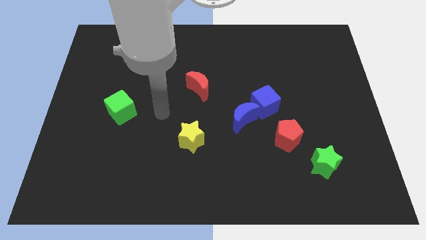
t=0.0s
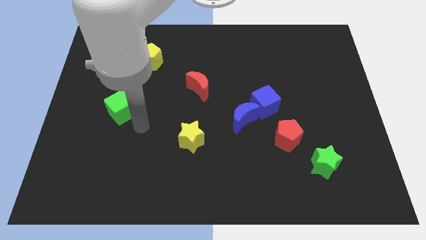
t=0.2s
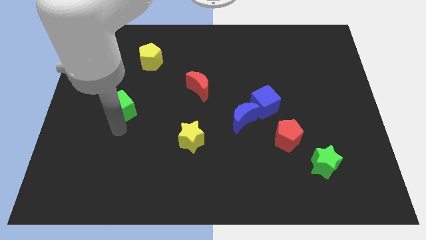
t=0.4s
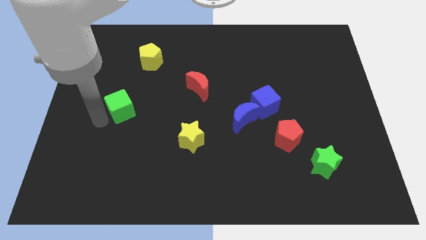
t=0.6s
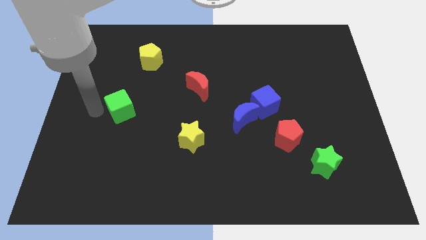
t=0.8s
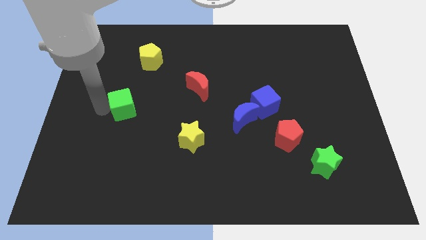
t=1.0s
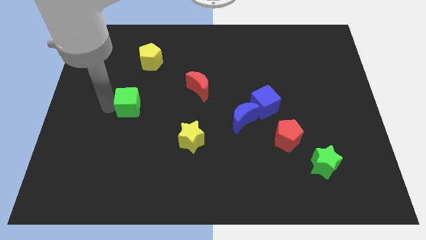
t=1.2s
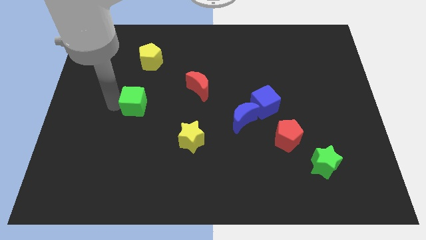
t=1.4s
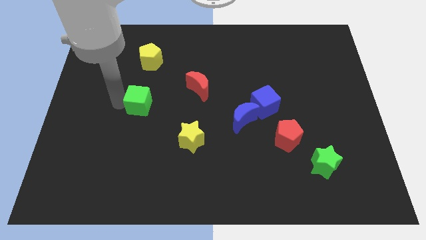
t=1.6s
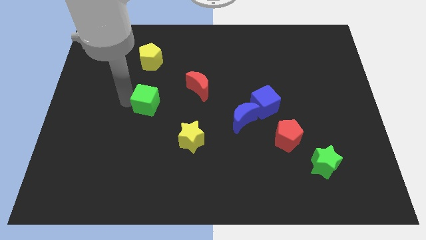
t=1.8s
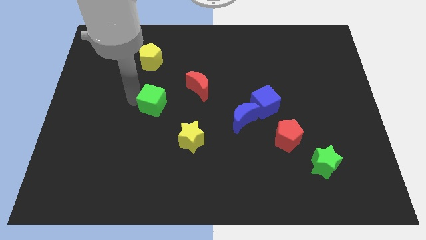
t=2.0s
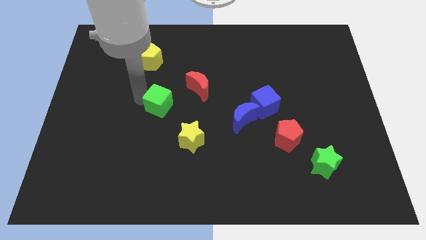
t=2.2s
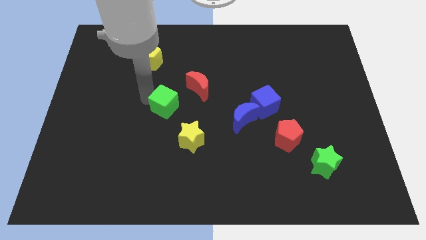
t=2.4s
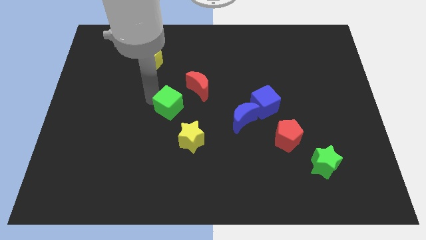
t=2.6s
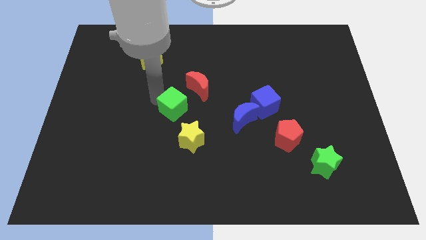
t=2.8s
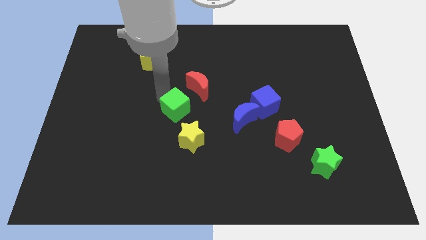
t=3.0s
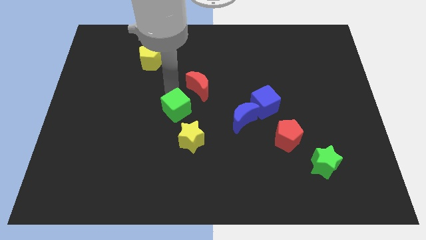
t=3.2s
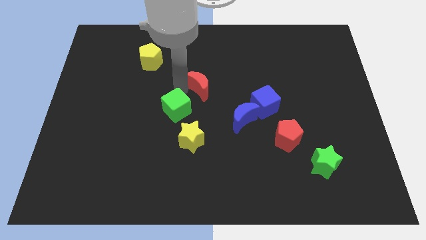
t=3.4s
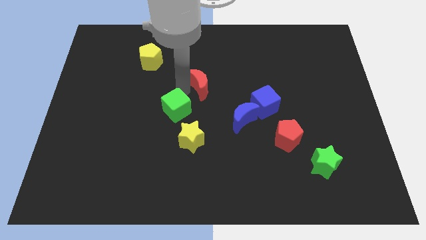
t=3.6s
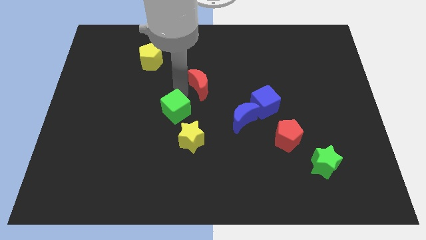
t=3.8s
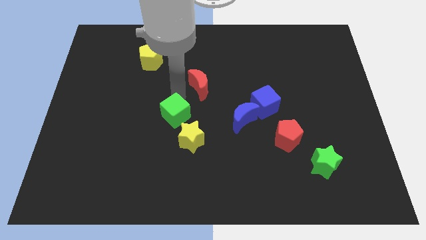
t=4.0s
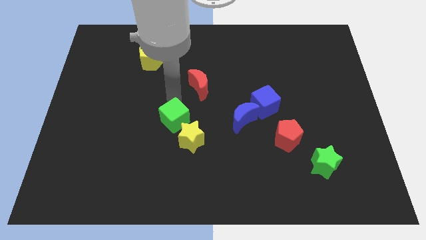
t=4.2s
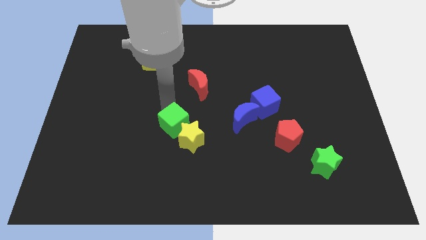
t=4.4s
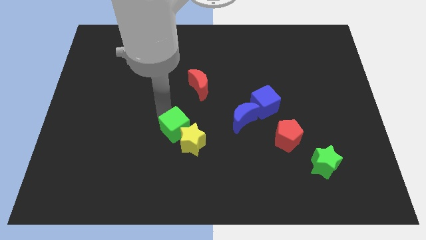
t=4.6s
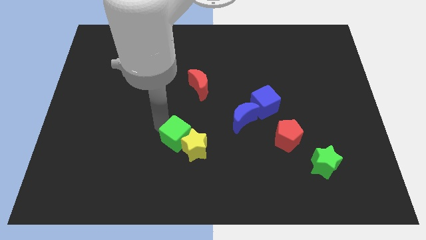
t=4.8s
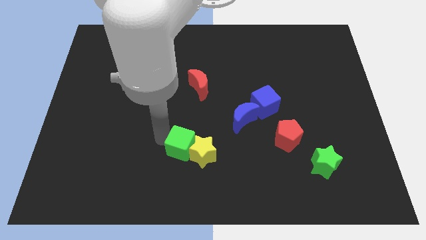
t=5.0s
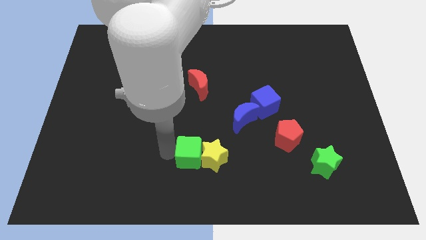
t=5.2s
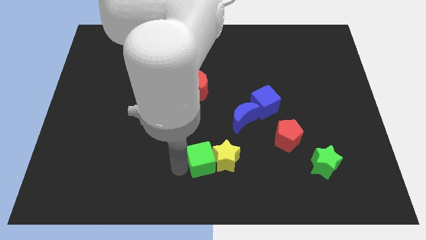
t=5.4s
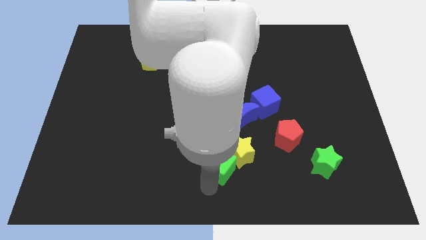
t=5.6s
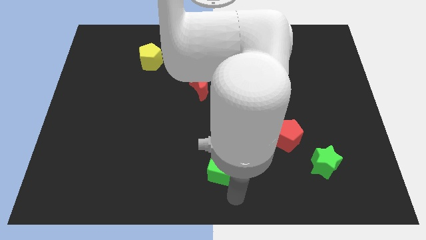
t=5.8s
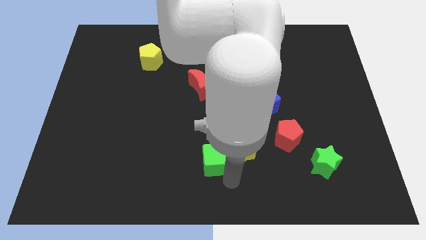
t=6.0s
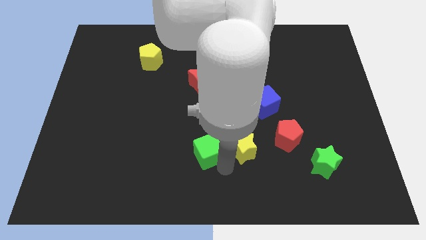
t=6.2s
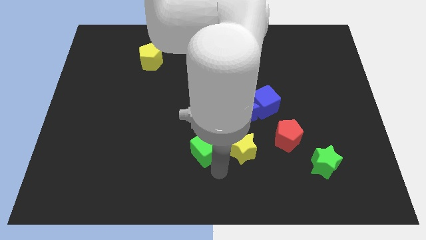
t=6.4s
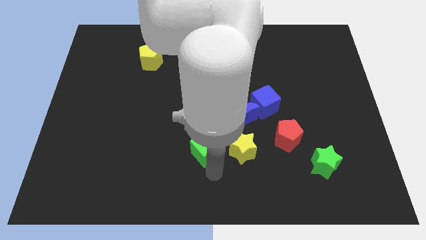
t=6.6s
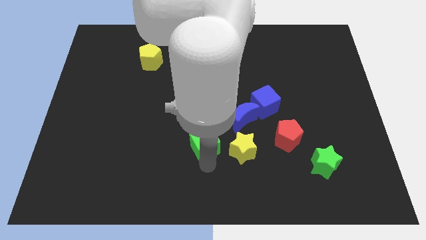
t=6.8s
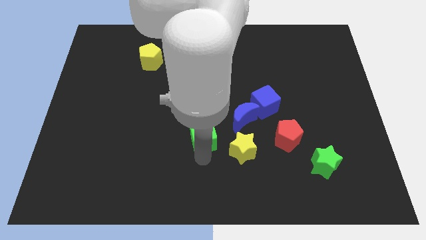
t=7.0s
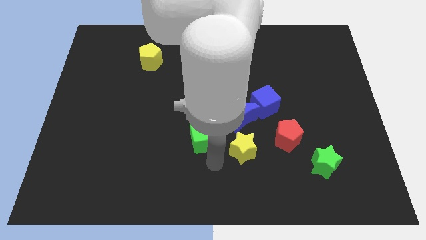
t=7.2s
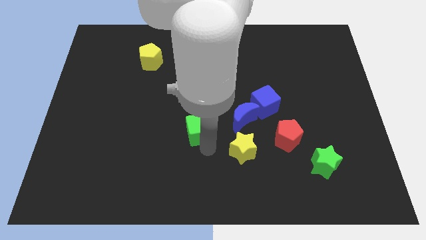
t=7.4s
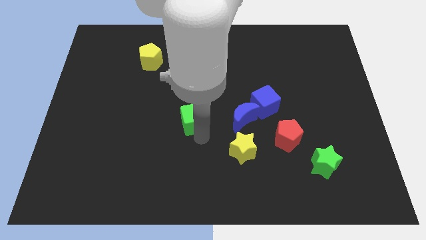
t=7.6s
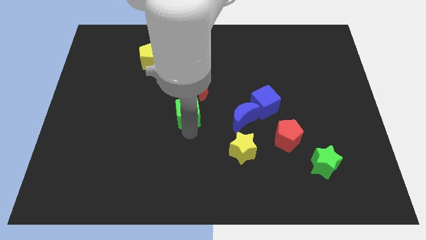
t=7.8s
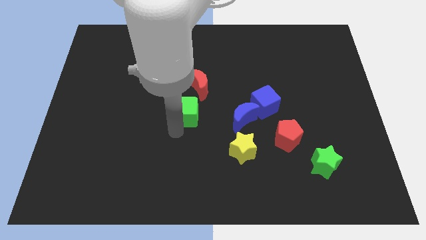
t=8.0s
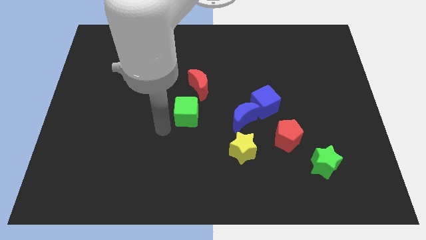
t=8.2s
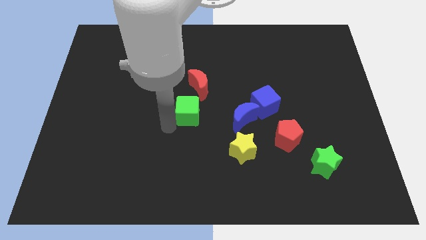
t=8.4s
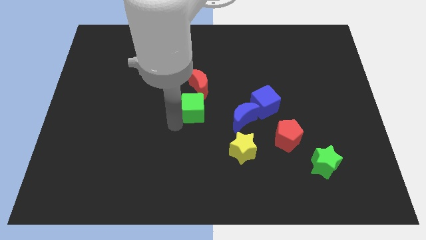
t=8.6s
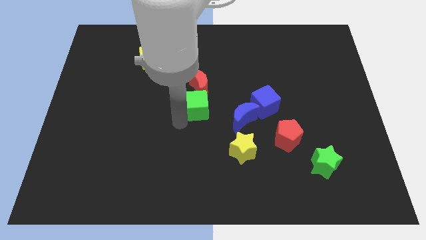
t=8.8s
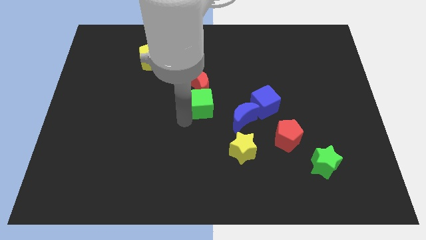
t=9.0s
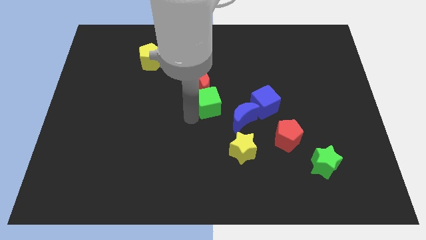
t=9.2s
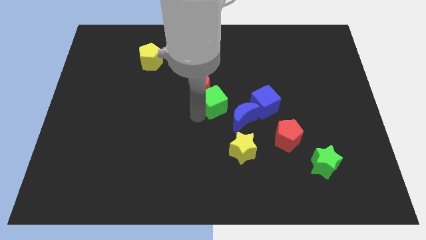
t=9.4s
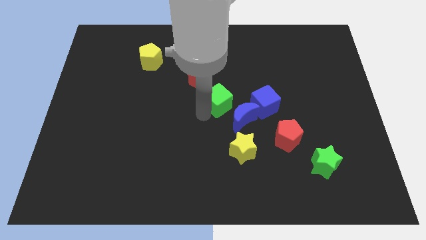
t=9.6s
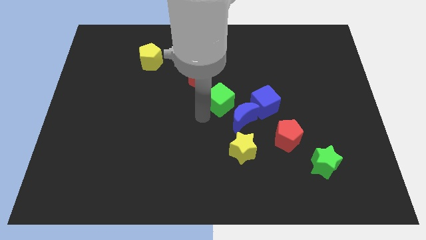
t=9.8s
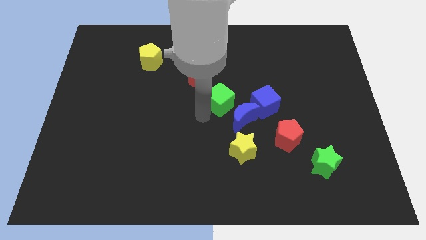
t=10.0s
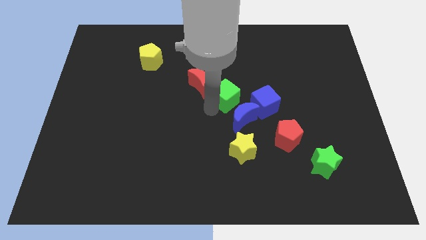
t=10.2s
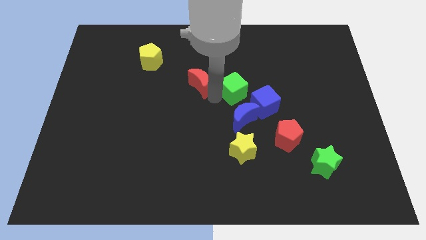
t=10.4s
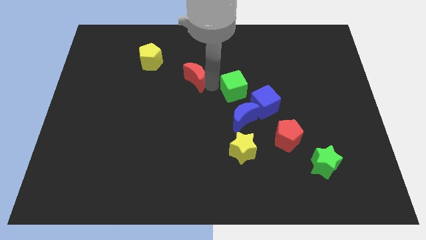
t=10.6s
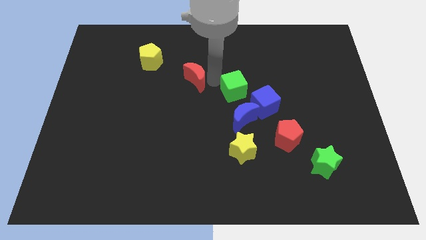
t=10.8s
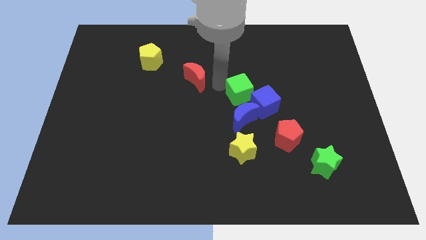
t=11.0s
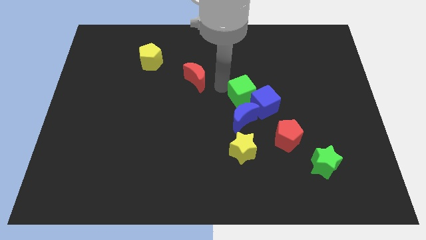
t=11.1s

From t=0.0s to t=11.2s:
put the green cube towards the blue cube

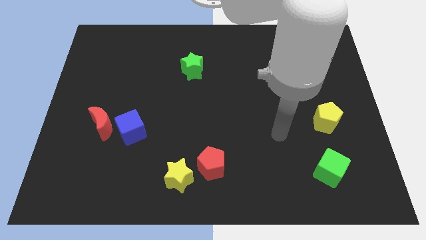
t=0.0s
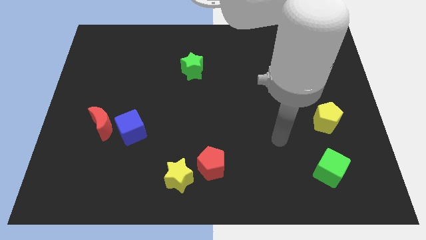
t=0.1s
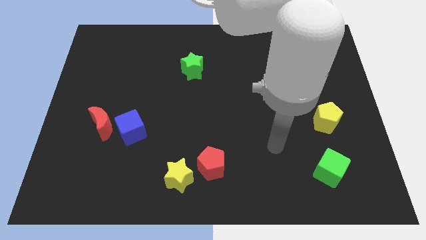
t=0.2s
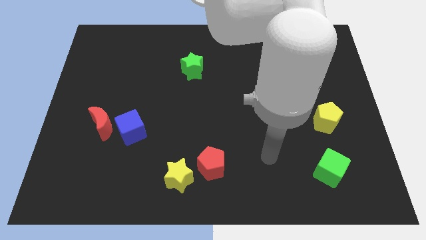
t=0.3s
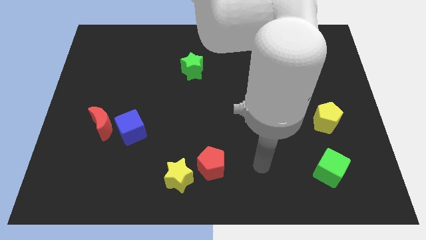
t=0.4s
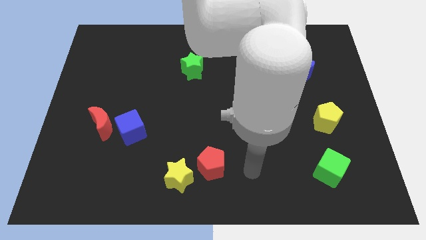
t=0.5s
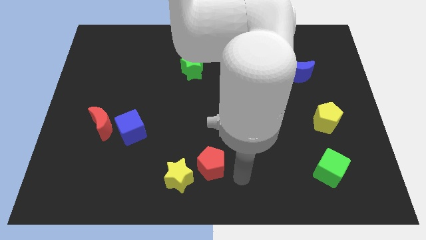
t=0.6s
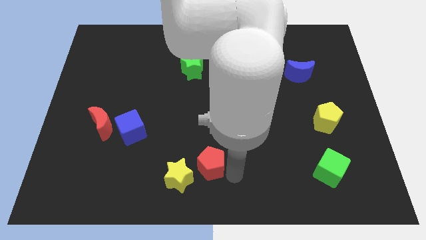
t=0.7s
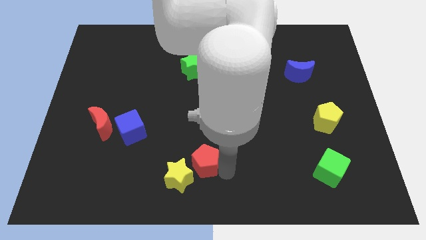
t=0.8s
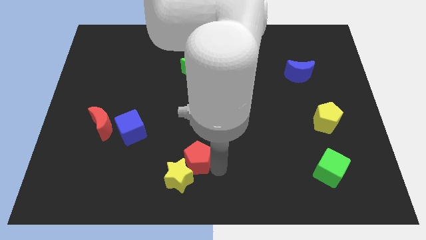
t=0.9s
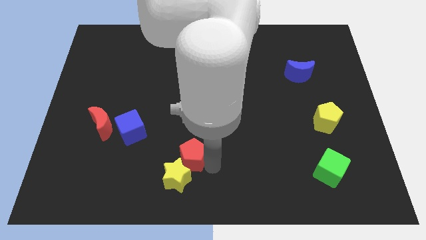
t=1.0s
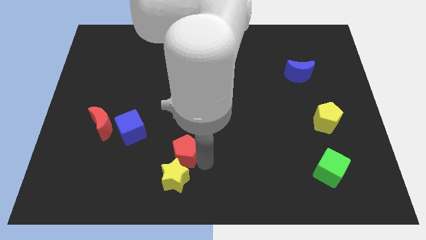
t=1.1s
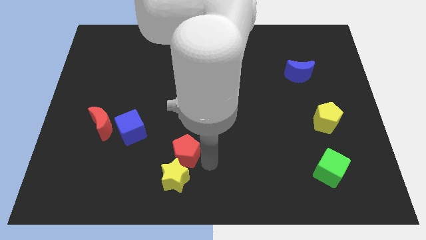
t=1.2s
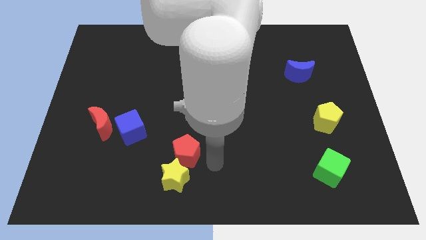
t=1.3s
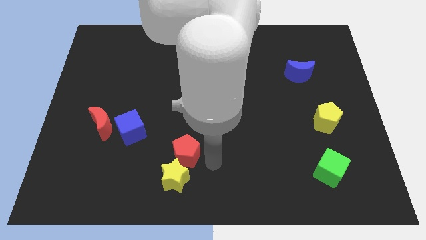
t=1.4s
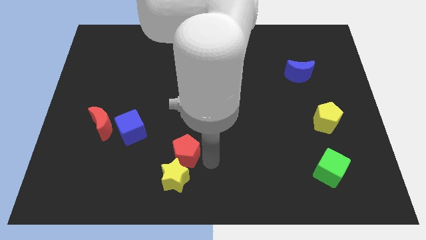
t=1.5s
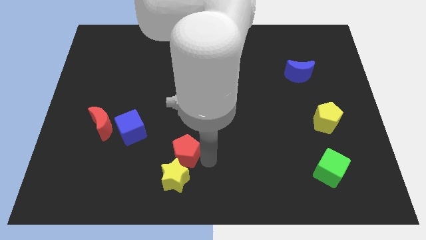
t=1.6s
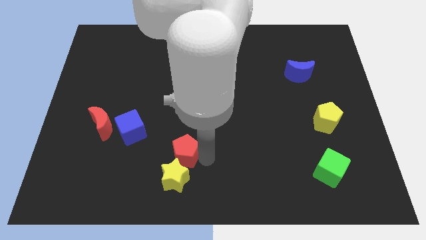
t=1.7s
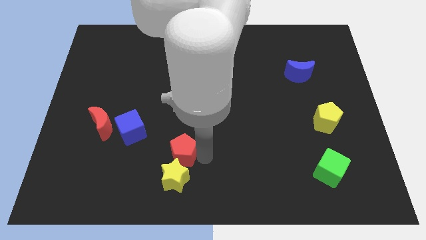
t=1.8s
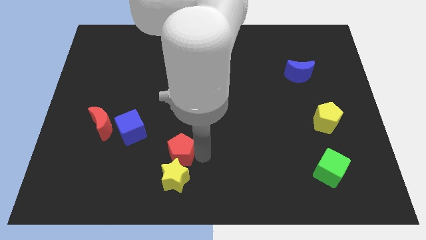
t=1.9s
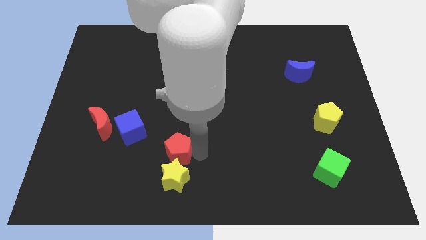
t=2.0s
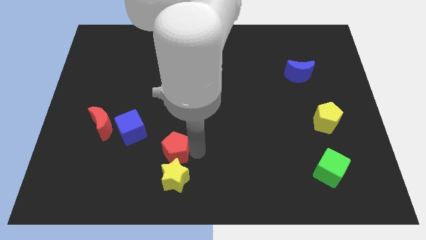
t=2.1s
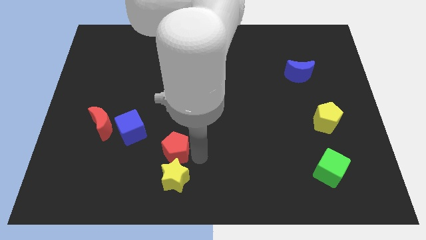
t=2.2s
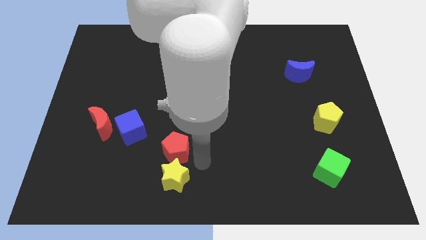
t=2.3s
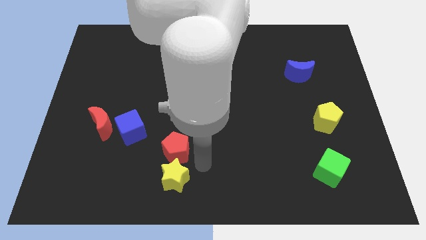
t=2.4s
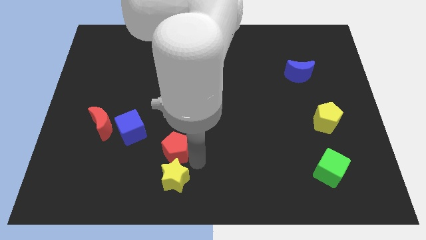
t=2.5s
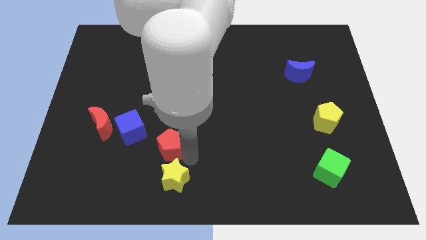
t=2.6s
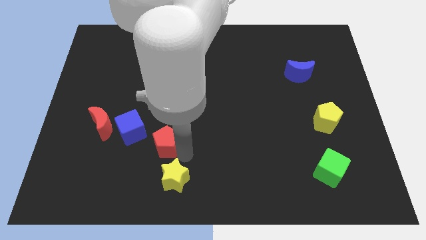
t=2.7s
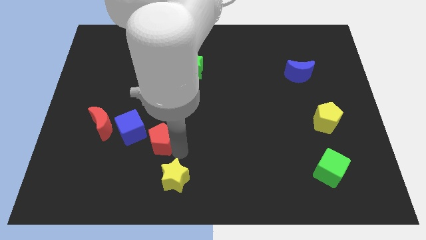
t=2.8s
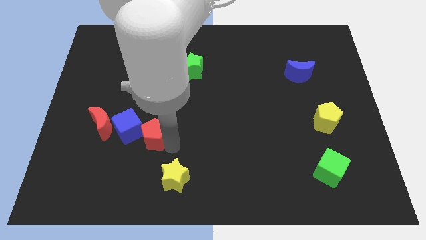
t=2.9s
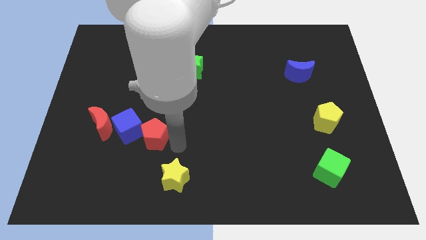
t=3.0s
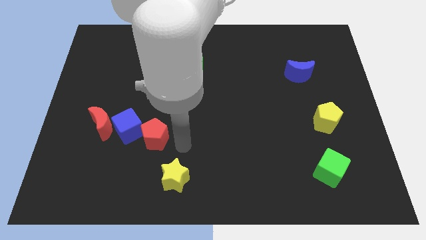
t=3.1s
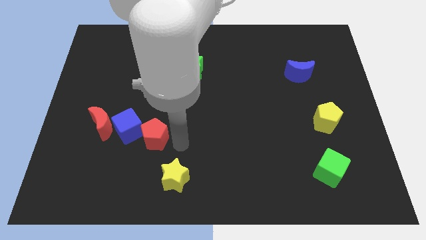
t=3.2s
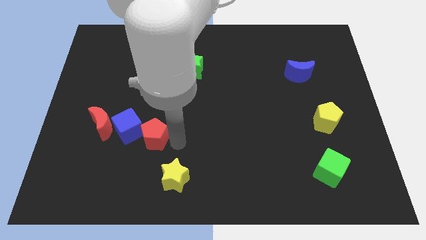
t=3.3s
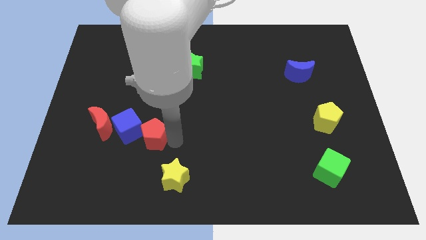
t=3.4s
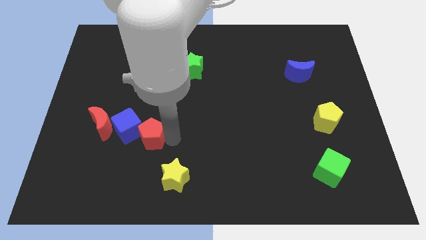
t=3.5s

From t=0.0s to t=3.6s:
push the red pentagon next to the blue cube
